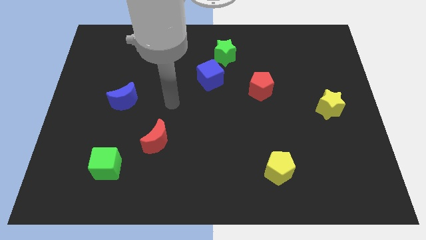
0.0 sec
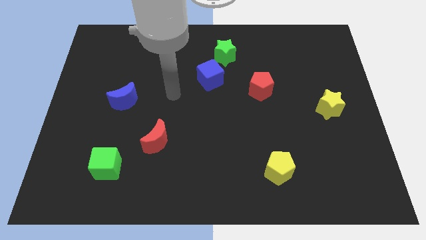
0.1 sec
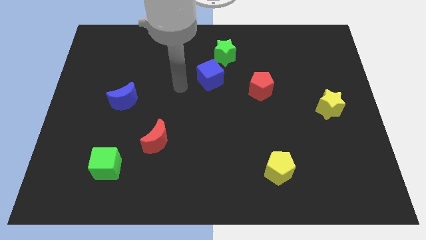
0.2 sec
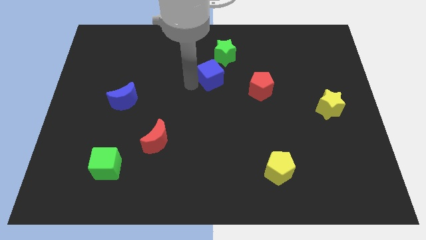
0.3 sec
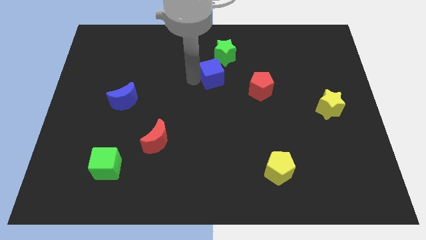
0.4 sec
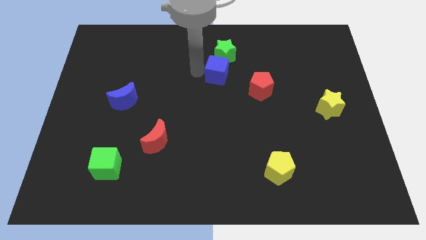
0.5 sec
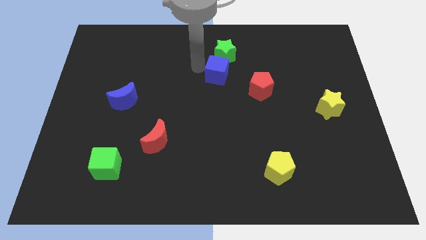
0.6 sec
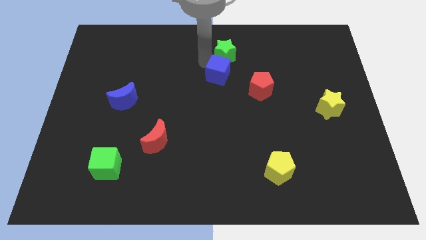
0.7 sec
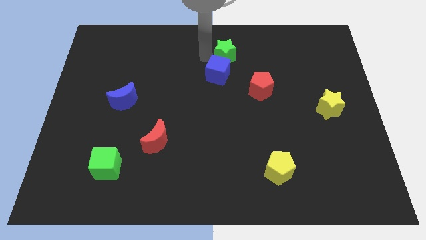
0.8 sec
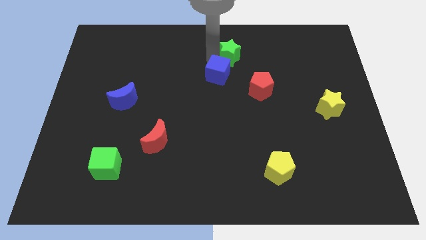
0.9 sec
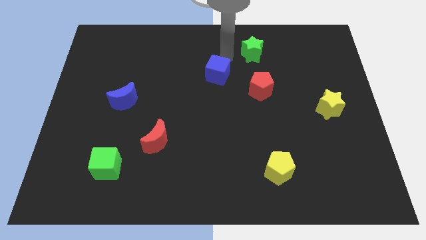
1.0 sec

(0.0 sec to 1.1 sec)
move the blue cube away from the green star

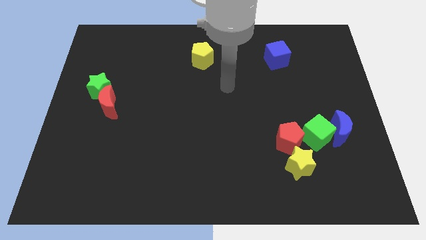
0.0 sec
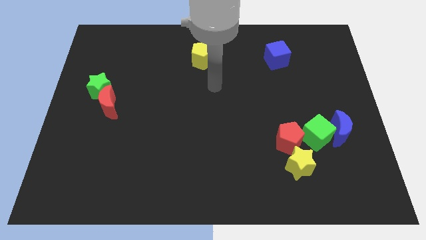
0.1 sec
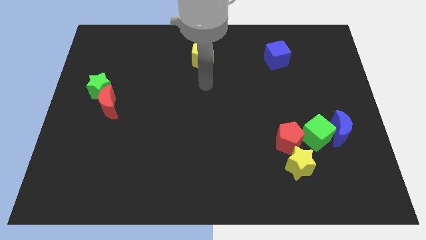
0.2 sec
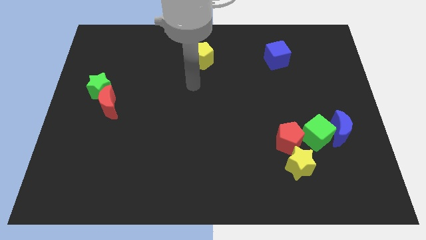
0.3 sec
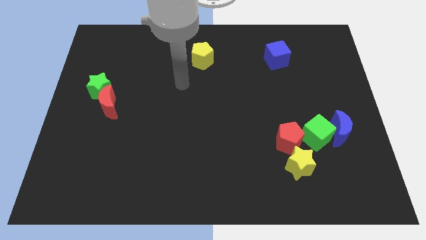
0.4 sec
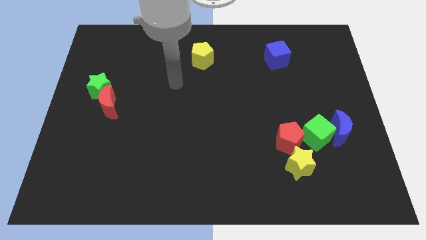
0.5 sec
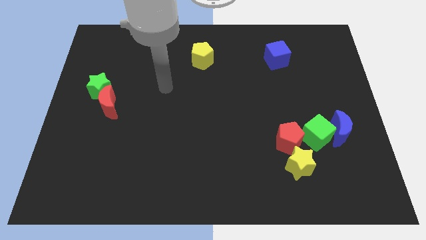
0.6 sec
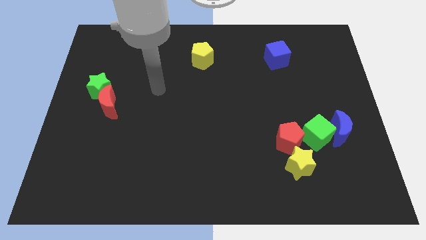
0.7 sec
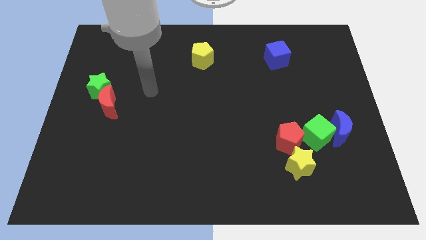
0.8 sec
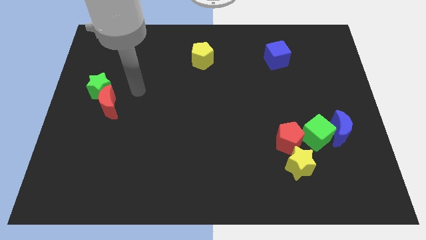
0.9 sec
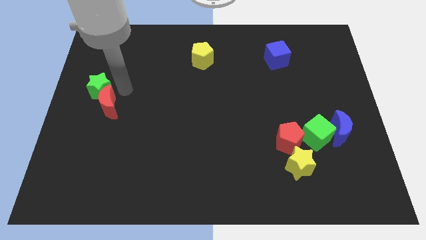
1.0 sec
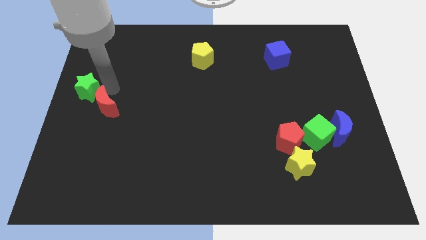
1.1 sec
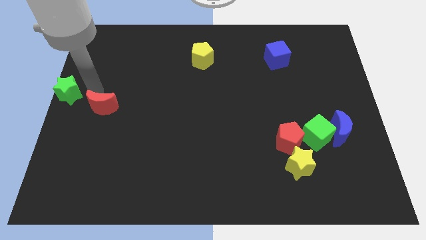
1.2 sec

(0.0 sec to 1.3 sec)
separate the red moon from the green star

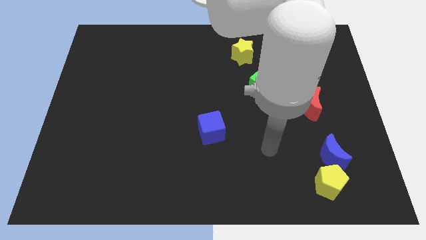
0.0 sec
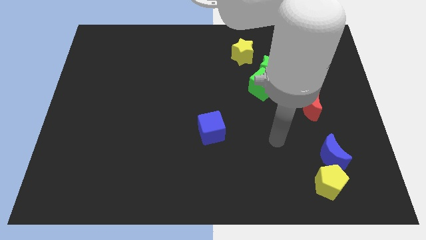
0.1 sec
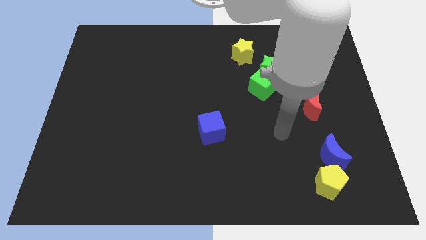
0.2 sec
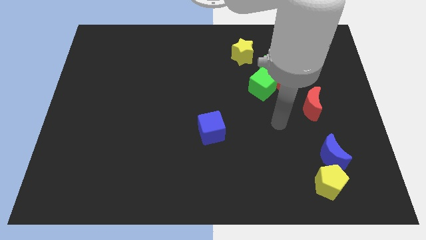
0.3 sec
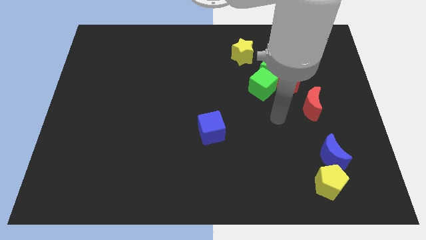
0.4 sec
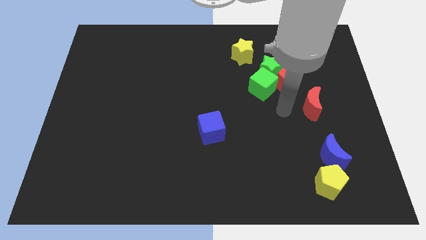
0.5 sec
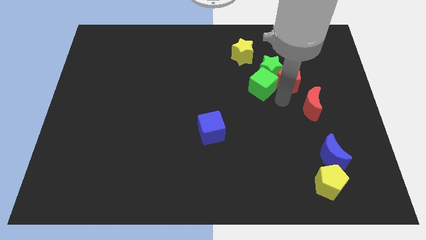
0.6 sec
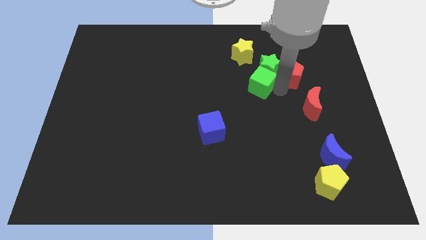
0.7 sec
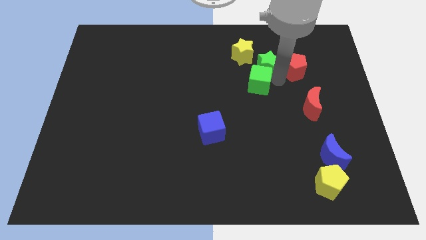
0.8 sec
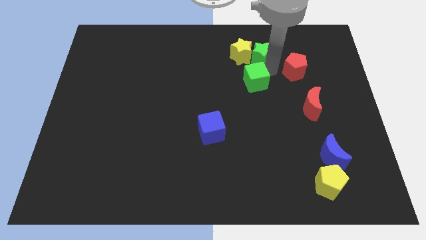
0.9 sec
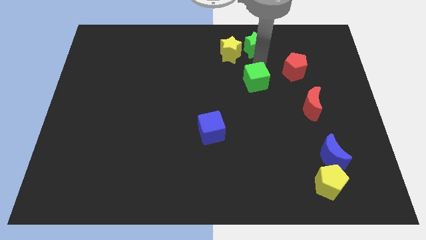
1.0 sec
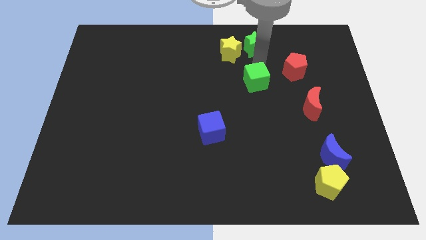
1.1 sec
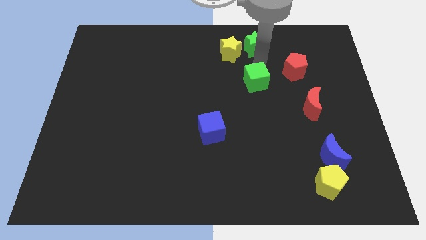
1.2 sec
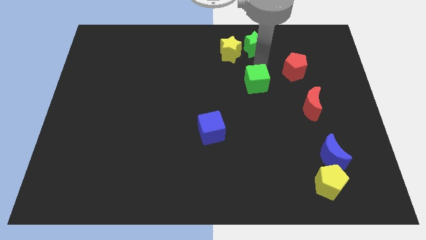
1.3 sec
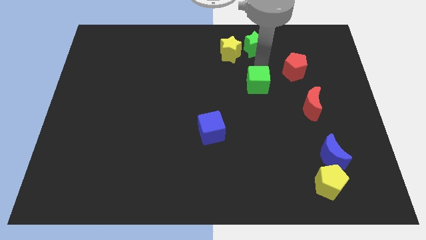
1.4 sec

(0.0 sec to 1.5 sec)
move the green cube away from the green star and red pentagon

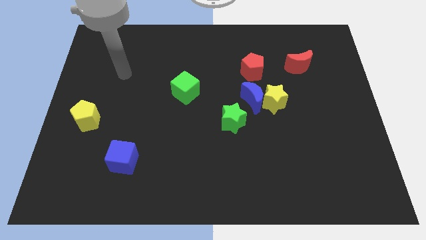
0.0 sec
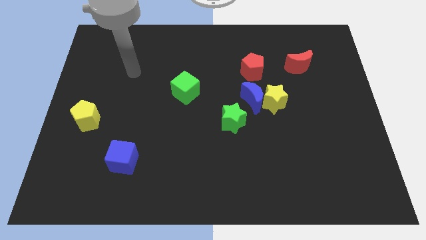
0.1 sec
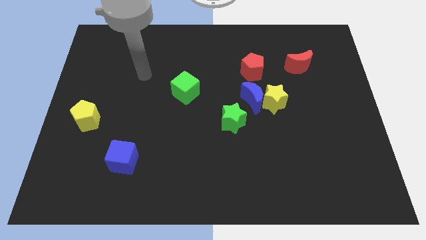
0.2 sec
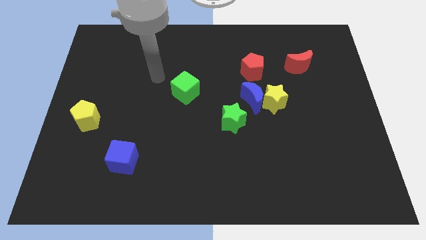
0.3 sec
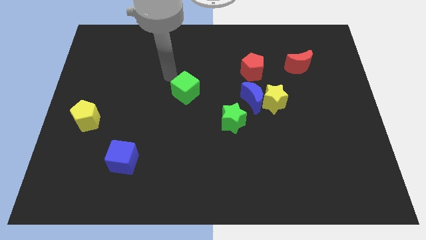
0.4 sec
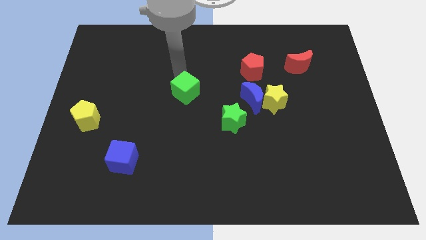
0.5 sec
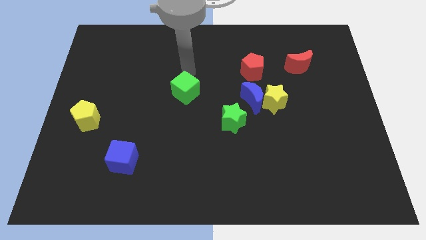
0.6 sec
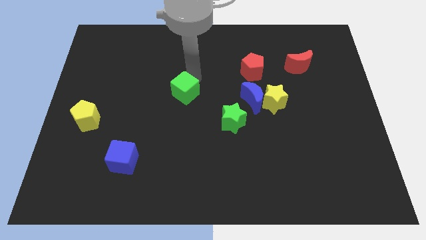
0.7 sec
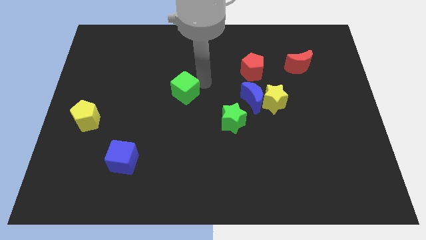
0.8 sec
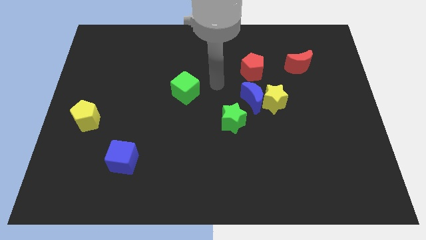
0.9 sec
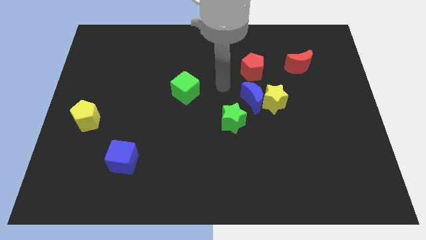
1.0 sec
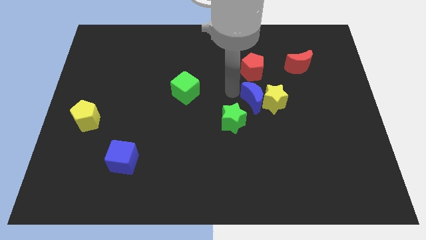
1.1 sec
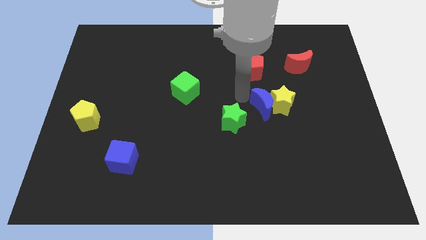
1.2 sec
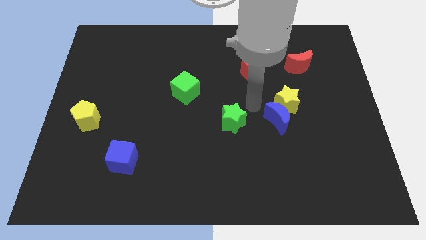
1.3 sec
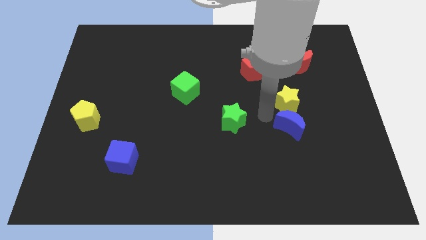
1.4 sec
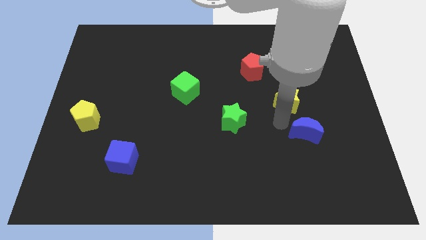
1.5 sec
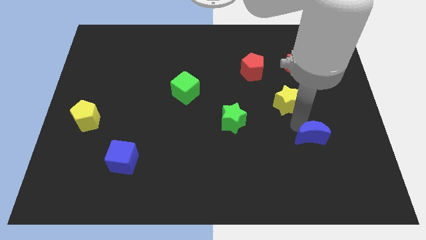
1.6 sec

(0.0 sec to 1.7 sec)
separate the yellow star from the blue moon

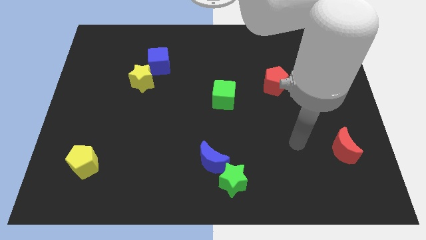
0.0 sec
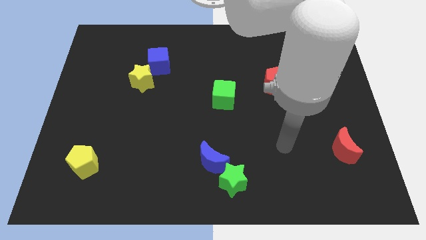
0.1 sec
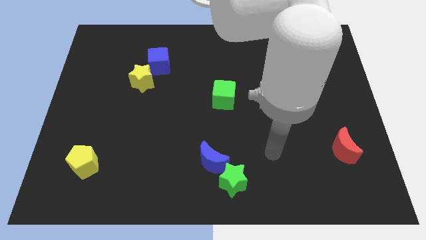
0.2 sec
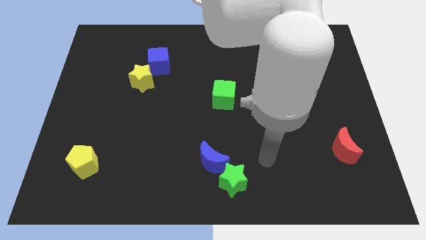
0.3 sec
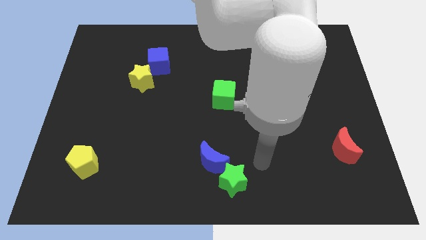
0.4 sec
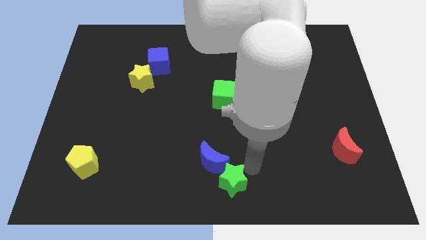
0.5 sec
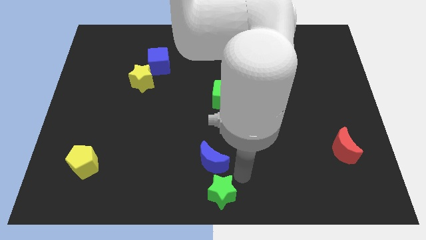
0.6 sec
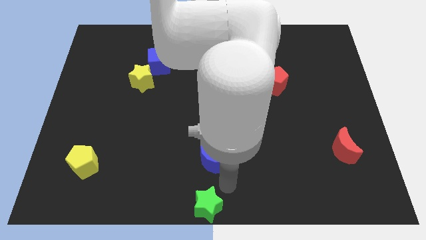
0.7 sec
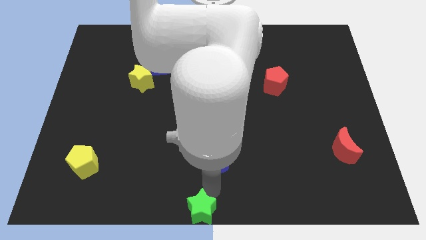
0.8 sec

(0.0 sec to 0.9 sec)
move the blue moon away from the green star

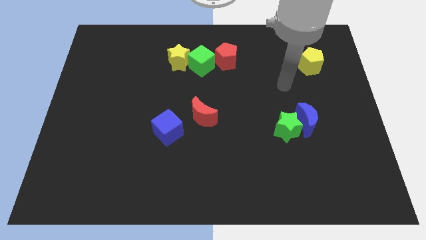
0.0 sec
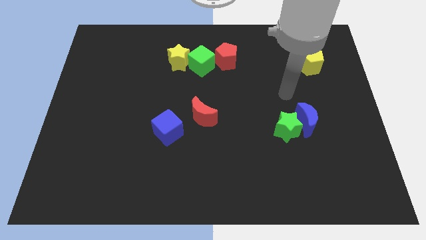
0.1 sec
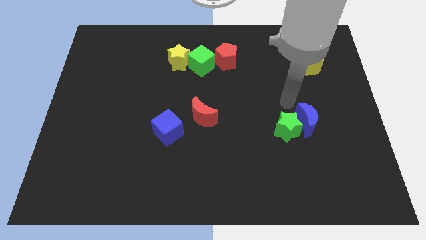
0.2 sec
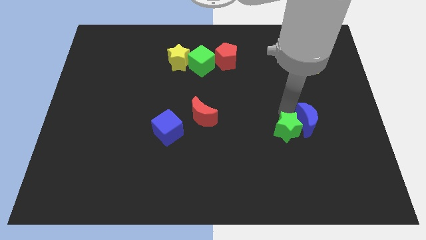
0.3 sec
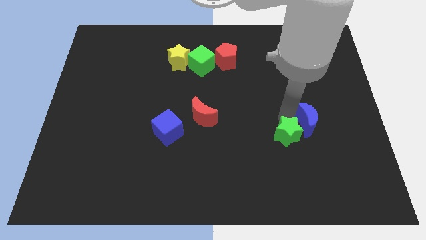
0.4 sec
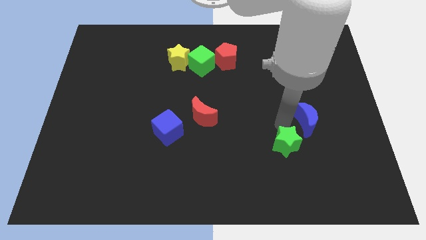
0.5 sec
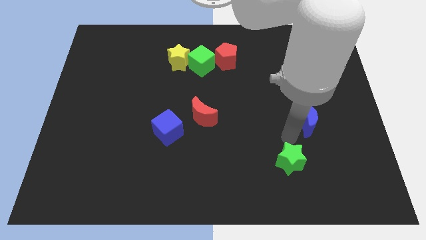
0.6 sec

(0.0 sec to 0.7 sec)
separate the blue moon from the green star

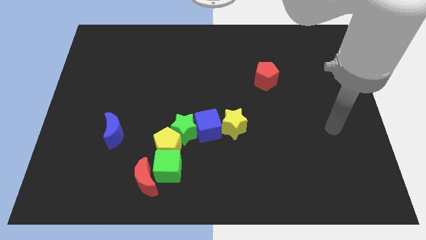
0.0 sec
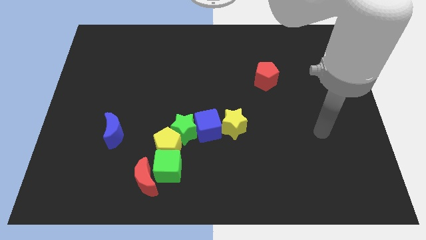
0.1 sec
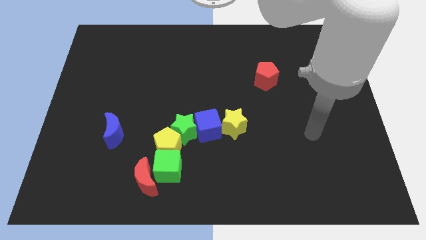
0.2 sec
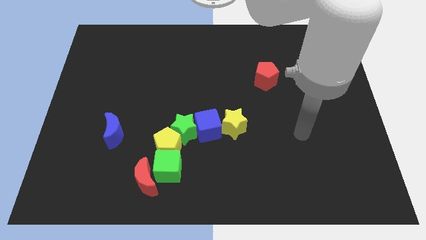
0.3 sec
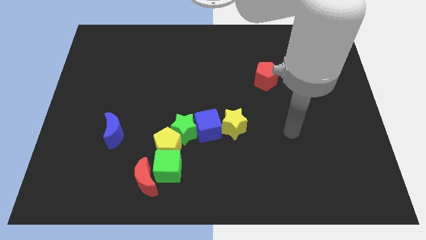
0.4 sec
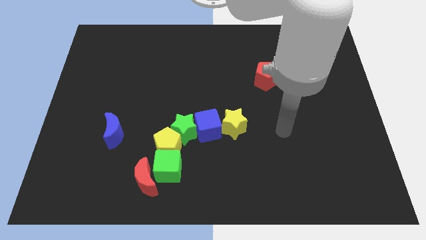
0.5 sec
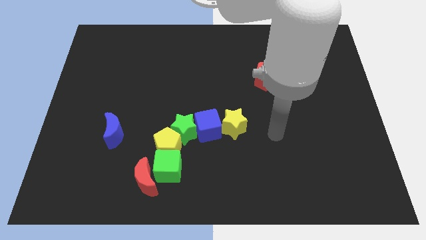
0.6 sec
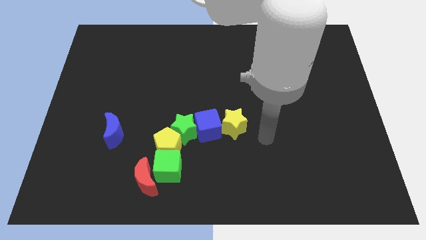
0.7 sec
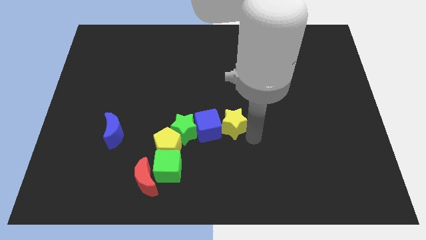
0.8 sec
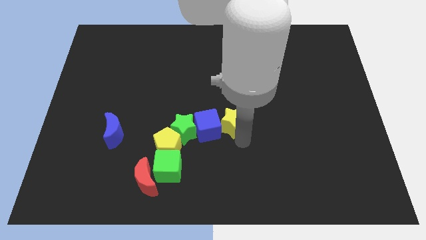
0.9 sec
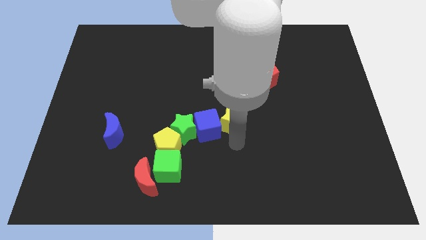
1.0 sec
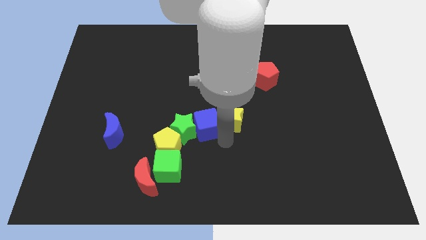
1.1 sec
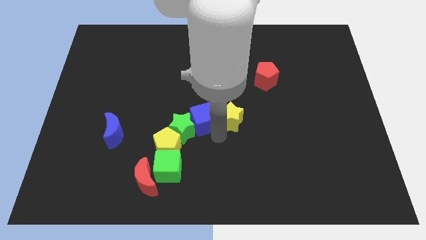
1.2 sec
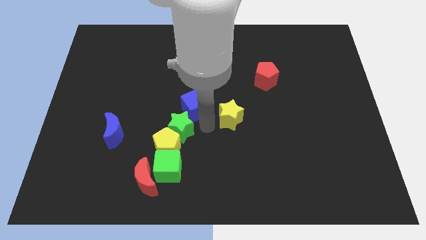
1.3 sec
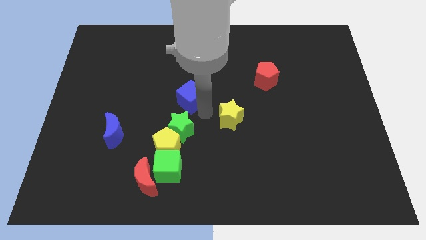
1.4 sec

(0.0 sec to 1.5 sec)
pull the yellow star apart from the blue cube

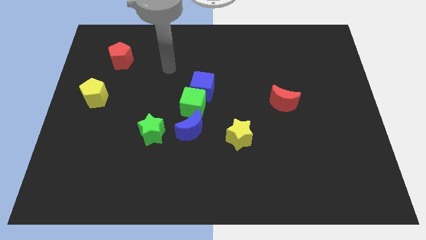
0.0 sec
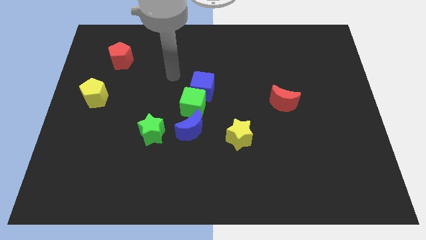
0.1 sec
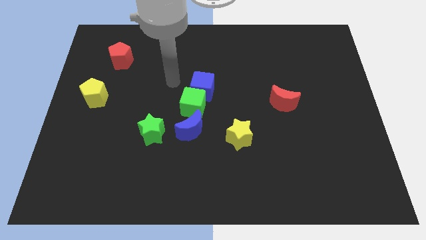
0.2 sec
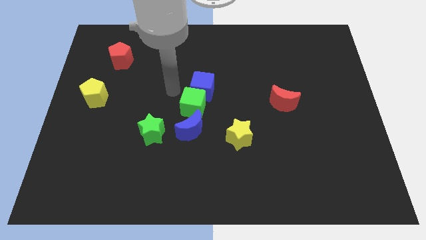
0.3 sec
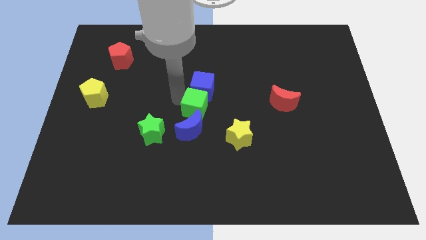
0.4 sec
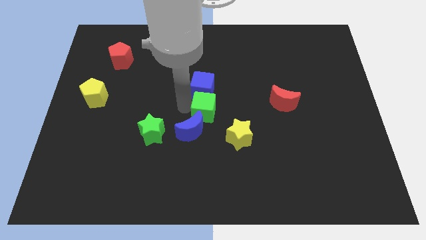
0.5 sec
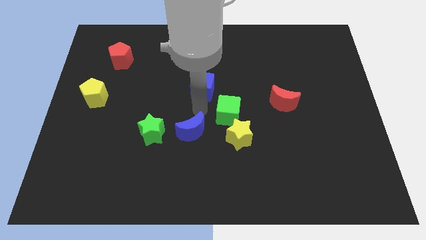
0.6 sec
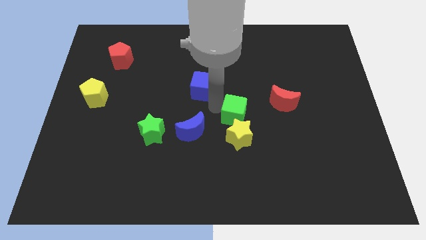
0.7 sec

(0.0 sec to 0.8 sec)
separate the blue cube from the green cube
